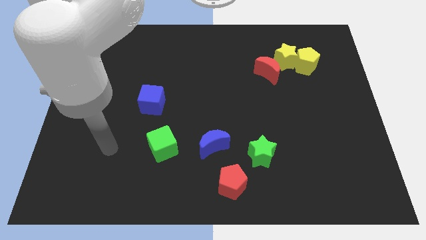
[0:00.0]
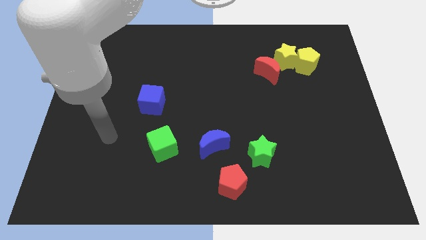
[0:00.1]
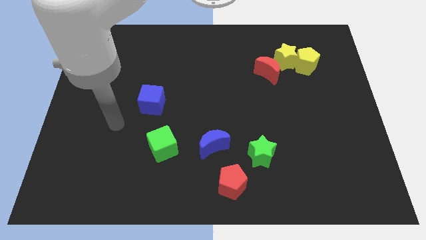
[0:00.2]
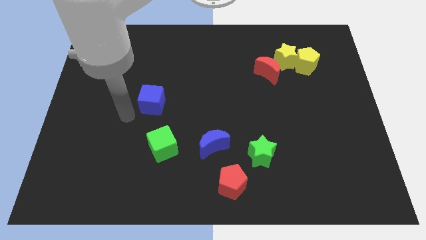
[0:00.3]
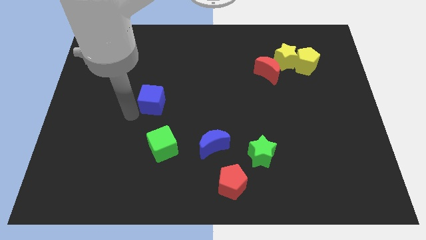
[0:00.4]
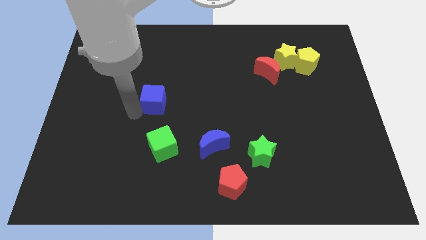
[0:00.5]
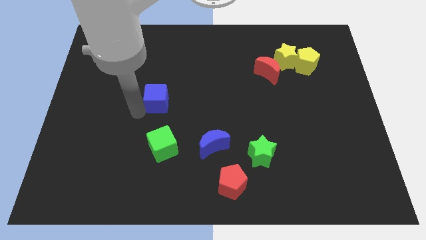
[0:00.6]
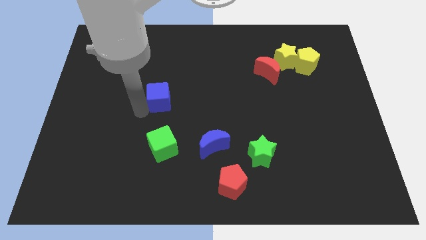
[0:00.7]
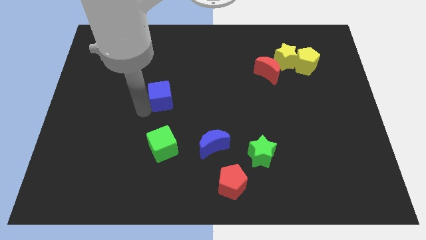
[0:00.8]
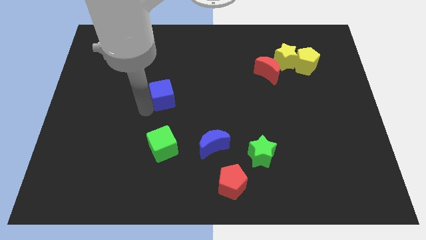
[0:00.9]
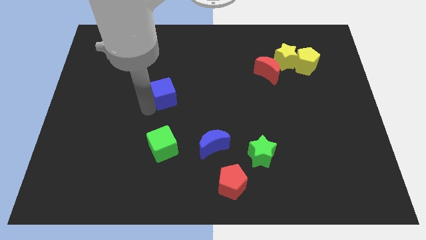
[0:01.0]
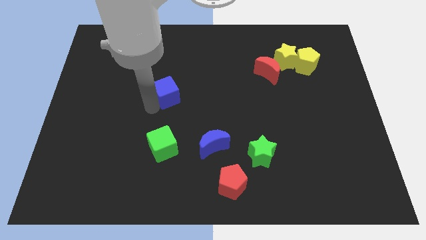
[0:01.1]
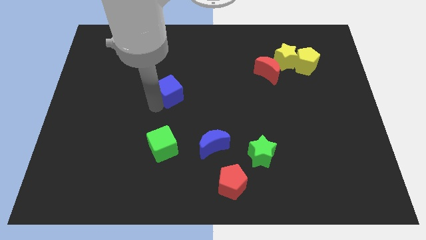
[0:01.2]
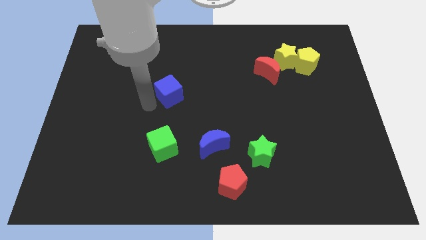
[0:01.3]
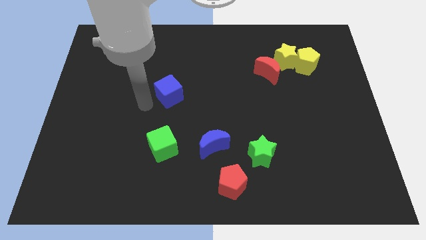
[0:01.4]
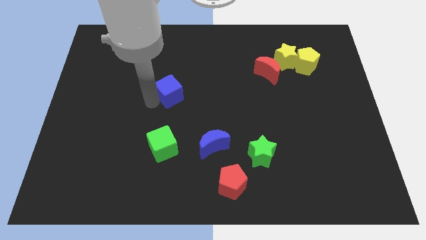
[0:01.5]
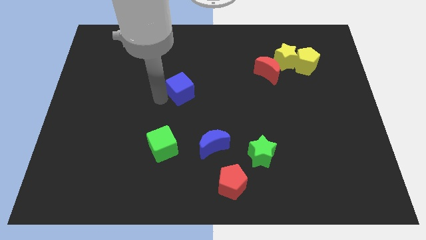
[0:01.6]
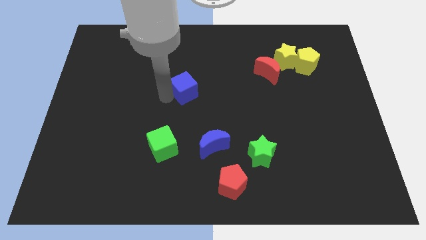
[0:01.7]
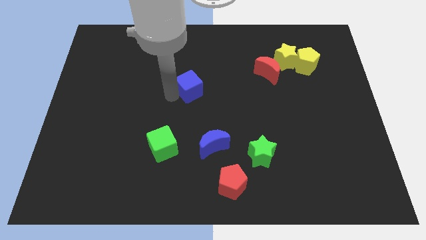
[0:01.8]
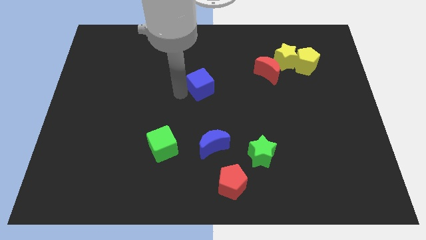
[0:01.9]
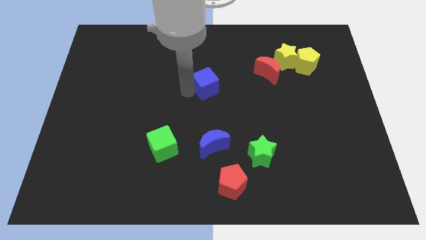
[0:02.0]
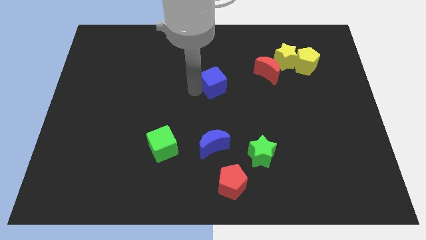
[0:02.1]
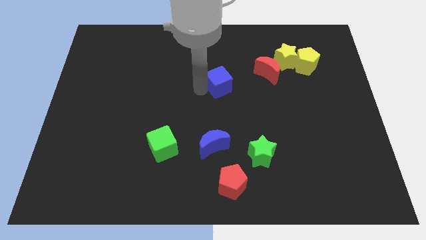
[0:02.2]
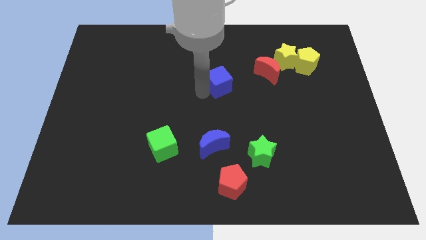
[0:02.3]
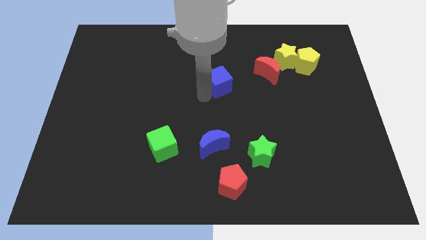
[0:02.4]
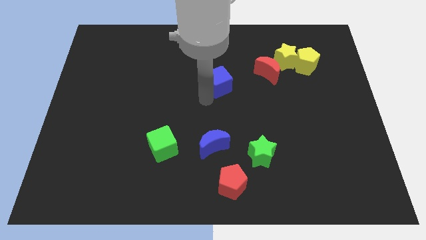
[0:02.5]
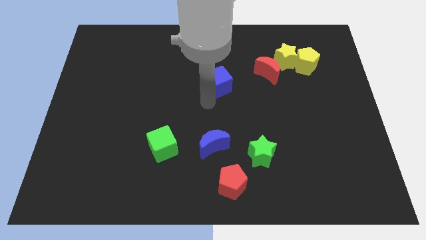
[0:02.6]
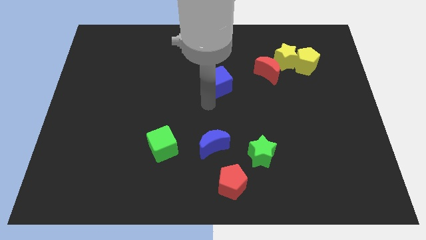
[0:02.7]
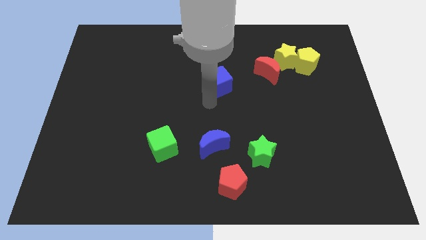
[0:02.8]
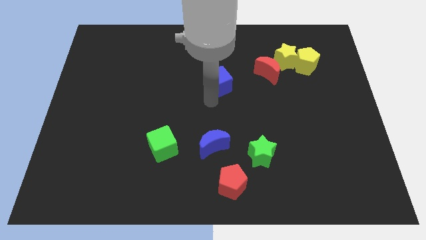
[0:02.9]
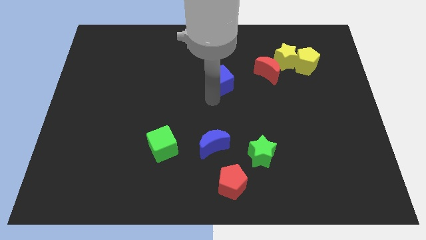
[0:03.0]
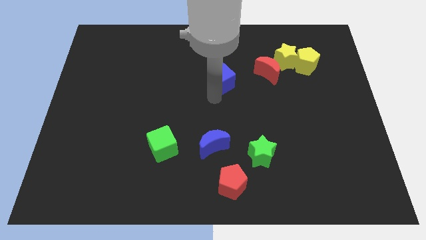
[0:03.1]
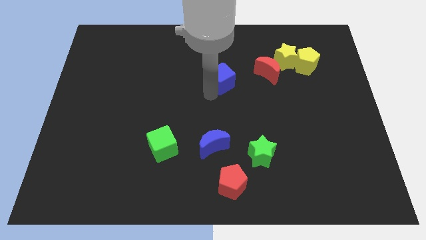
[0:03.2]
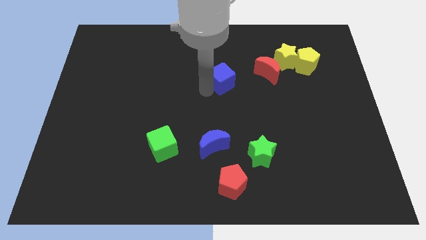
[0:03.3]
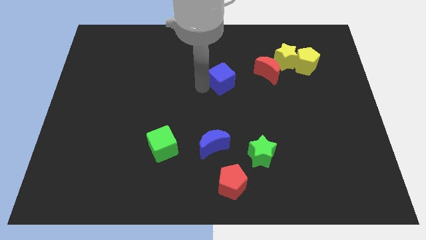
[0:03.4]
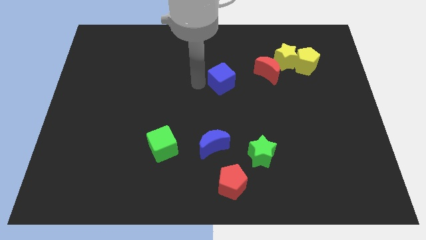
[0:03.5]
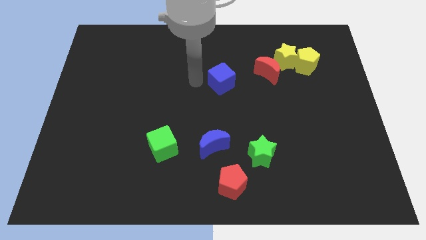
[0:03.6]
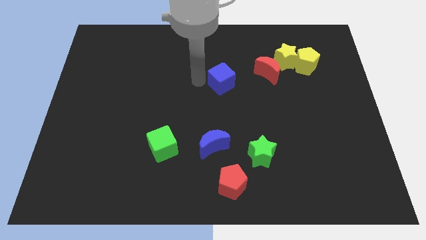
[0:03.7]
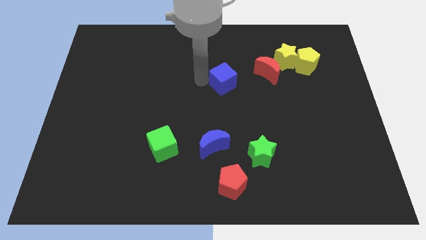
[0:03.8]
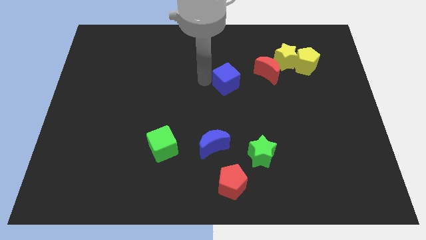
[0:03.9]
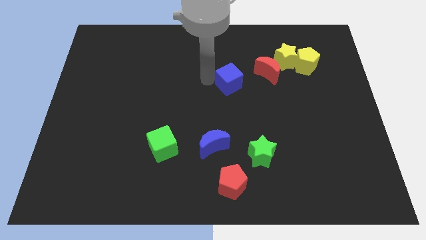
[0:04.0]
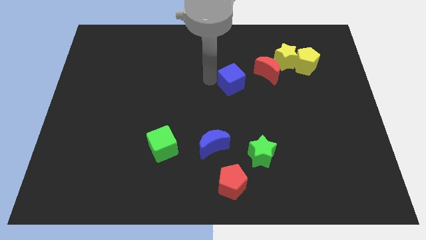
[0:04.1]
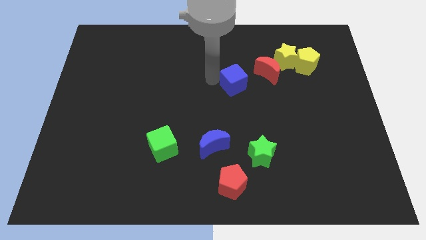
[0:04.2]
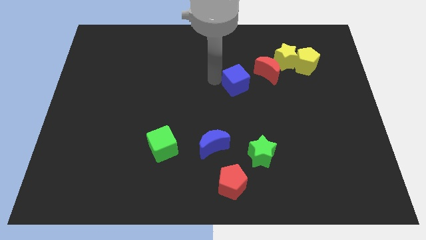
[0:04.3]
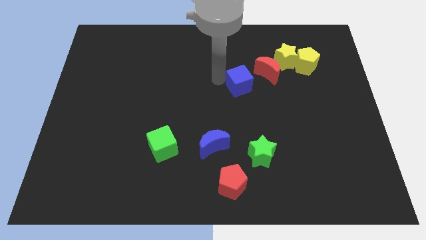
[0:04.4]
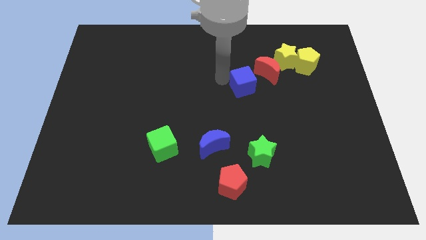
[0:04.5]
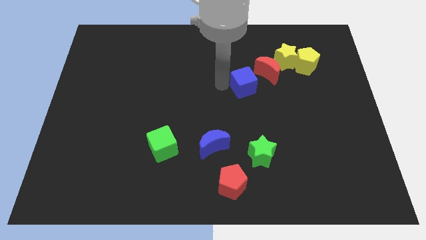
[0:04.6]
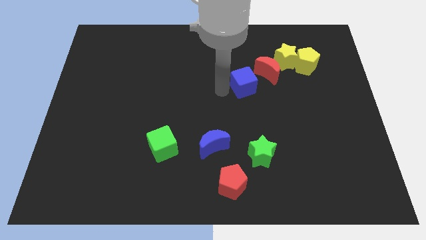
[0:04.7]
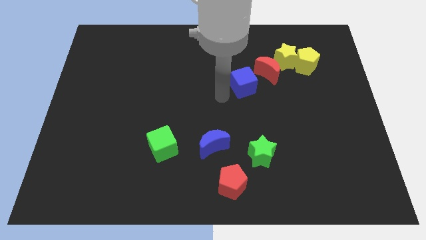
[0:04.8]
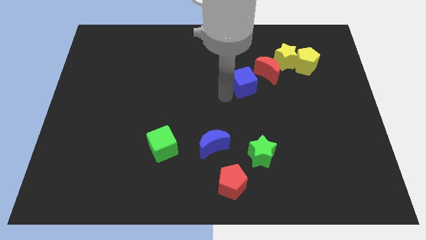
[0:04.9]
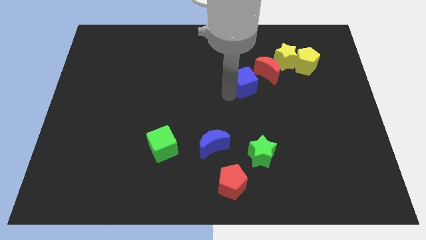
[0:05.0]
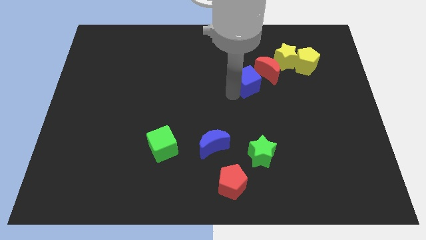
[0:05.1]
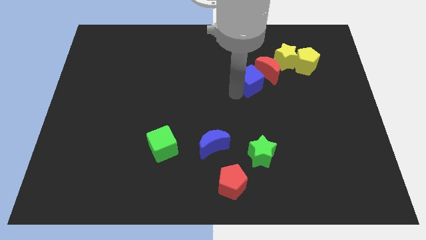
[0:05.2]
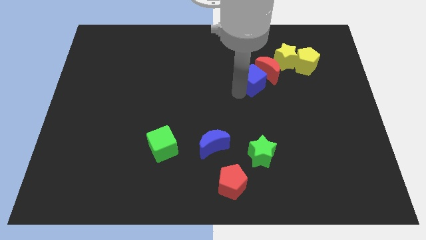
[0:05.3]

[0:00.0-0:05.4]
put the blue cube close to the red moon

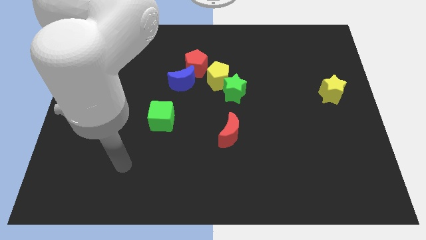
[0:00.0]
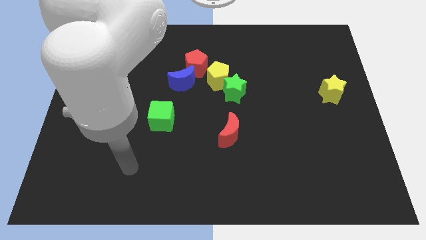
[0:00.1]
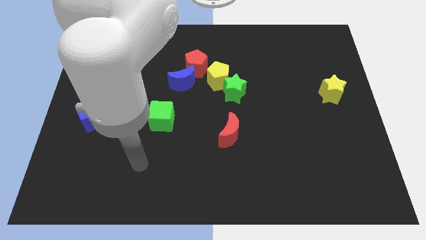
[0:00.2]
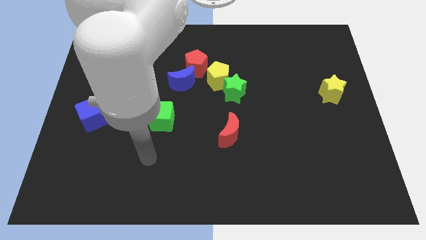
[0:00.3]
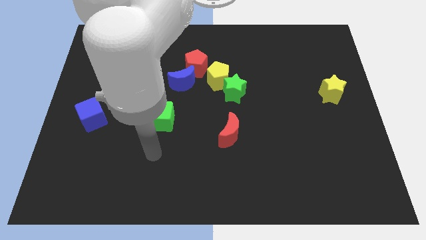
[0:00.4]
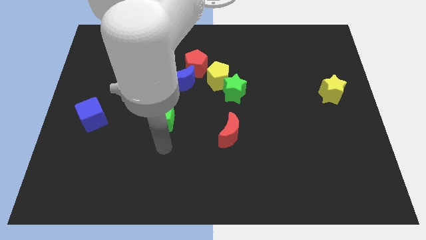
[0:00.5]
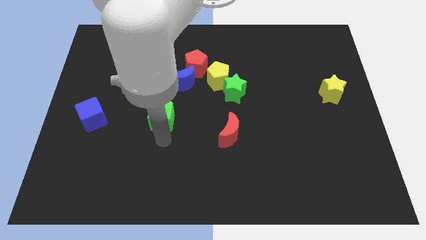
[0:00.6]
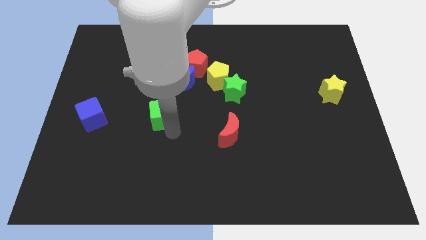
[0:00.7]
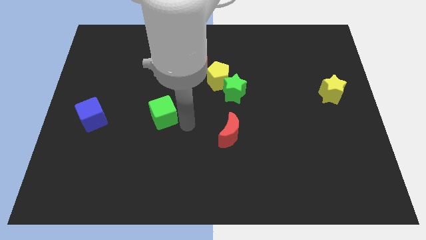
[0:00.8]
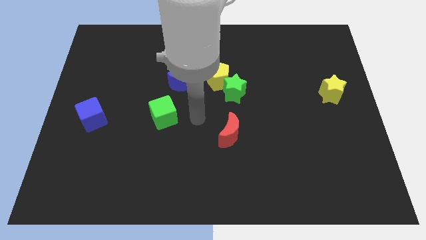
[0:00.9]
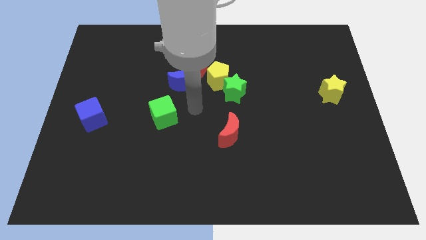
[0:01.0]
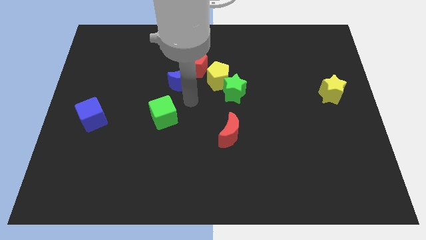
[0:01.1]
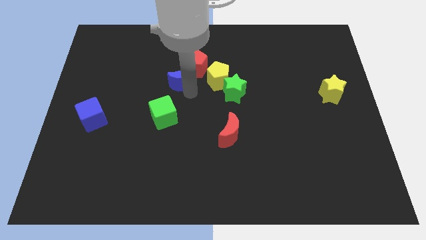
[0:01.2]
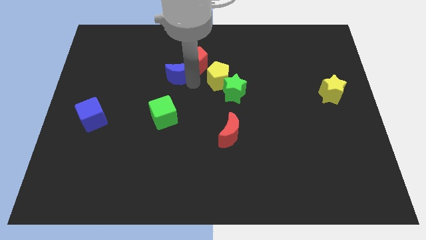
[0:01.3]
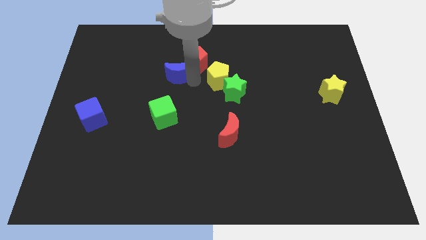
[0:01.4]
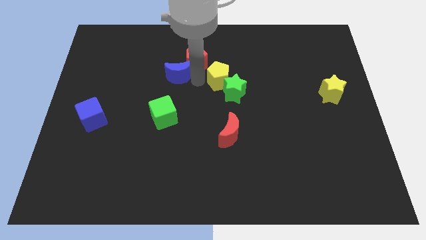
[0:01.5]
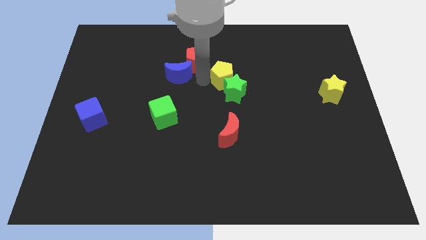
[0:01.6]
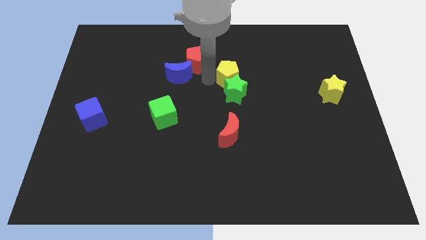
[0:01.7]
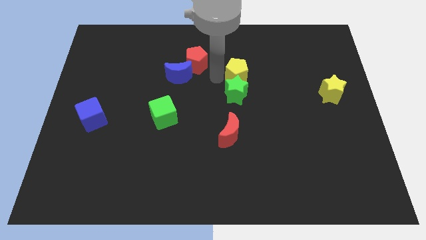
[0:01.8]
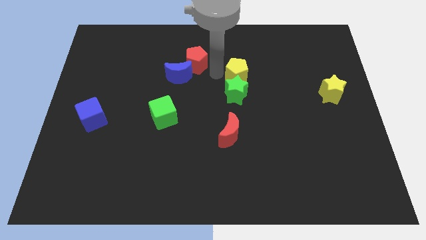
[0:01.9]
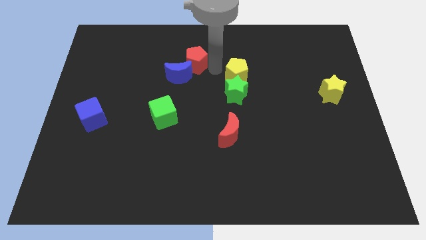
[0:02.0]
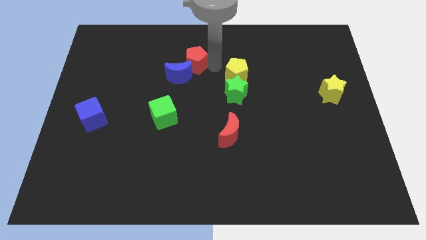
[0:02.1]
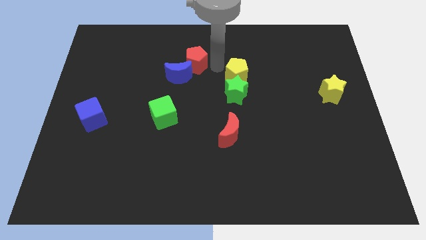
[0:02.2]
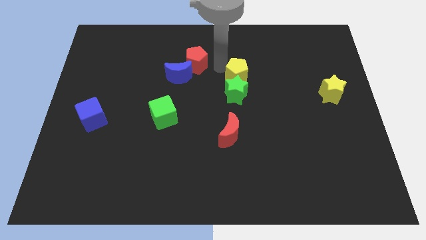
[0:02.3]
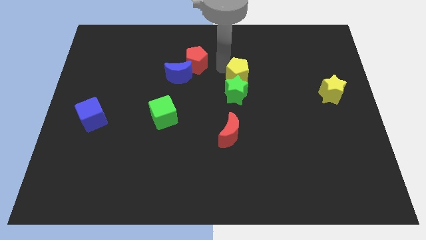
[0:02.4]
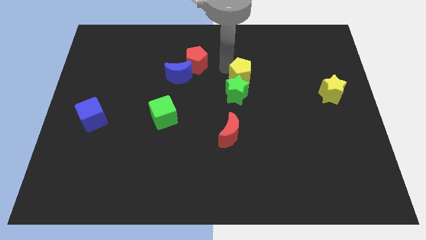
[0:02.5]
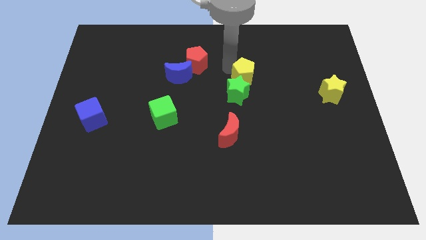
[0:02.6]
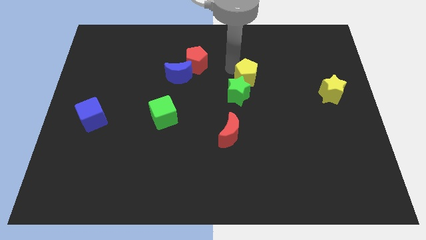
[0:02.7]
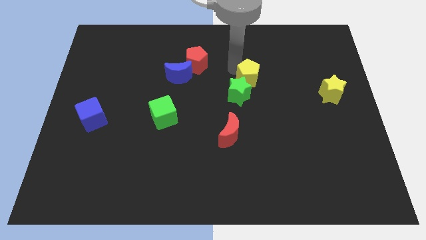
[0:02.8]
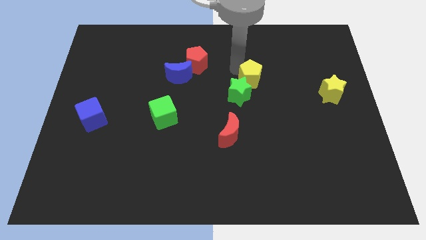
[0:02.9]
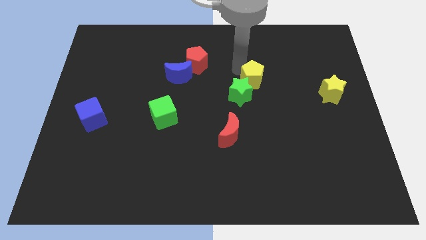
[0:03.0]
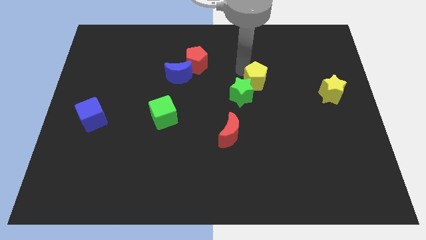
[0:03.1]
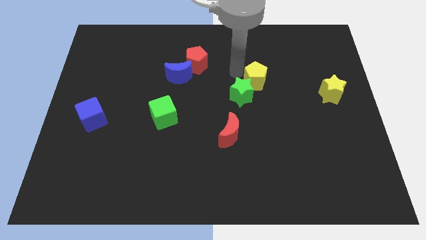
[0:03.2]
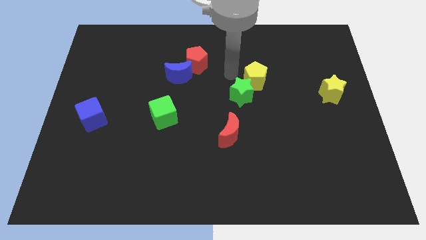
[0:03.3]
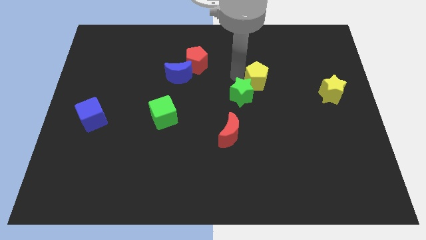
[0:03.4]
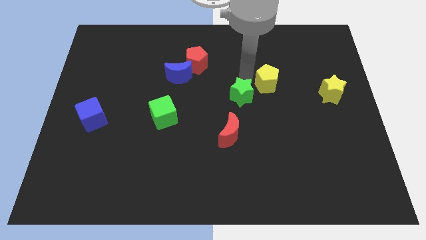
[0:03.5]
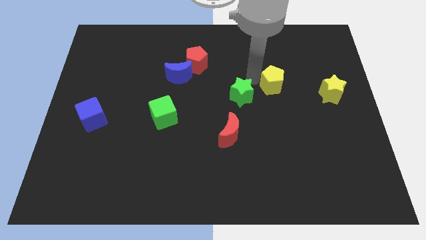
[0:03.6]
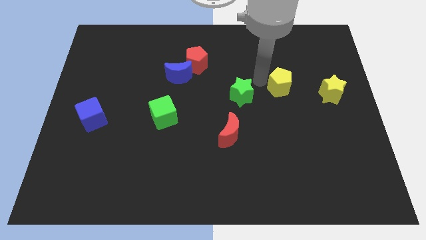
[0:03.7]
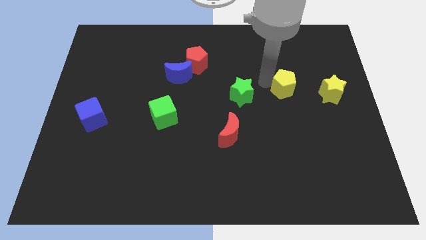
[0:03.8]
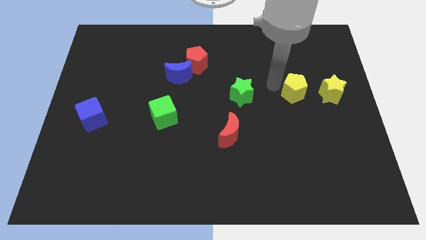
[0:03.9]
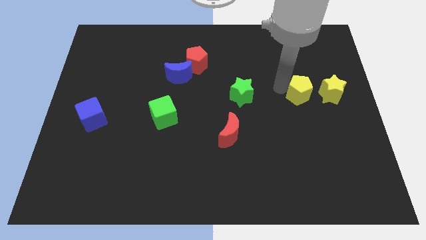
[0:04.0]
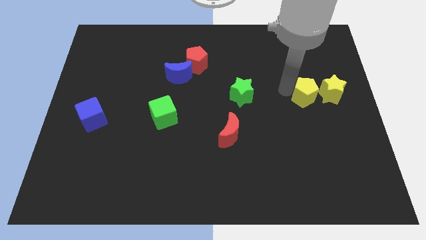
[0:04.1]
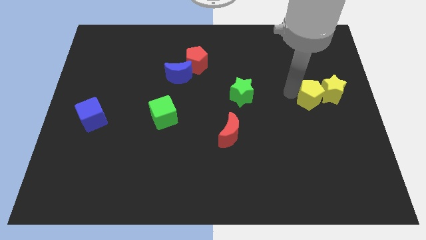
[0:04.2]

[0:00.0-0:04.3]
move the yellow pentagon close to the yellow star
